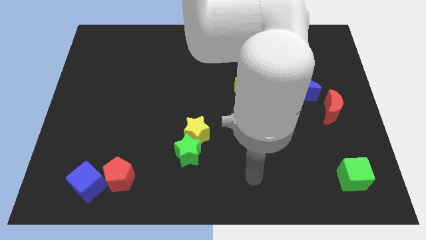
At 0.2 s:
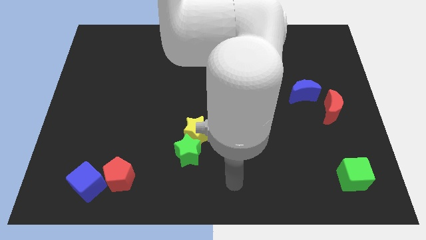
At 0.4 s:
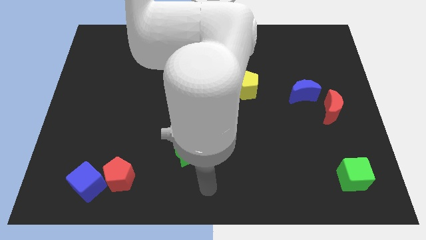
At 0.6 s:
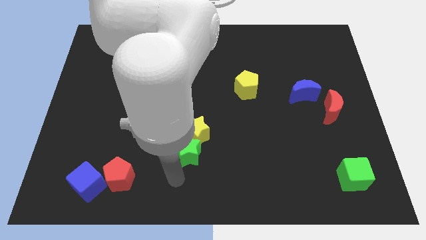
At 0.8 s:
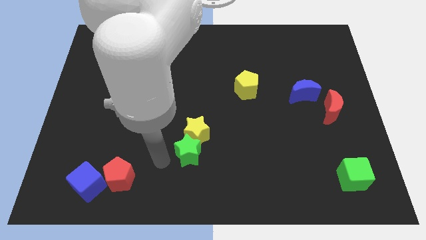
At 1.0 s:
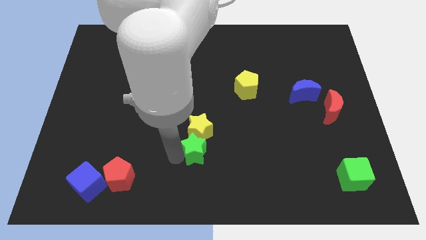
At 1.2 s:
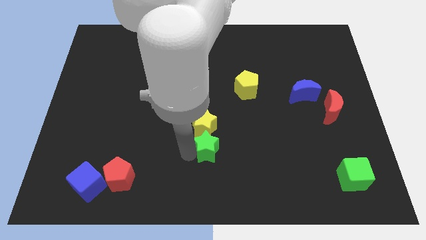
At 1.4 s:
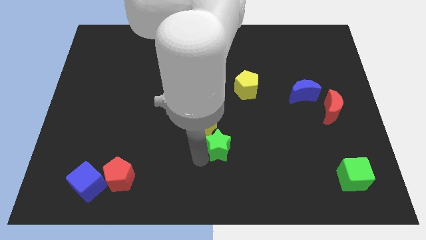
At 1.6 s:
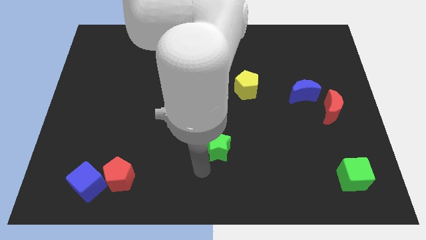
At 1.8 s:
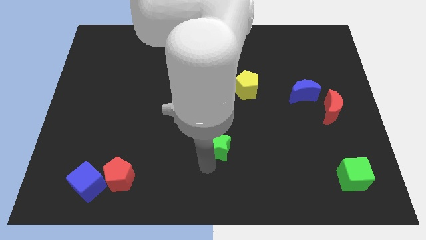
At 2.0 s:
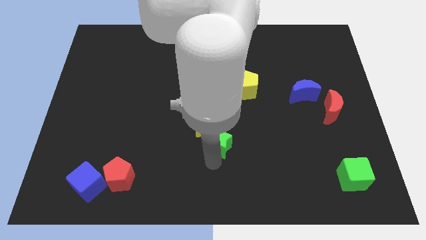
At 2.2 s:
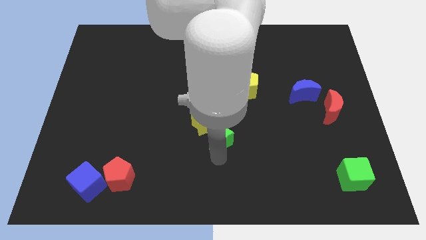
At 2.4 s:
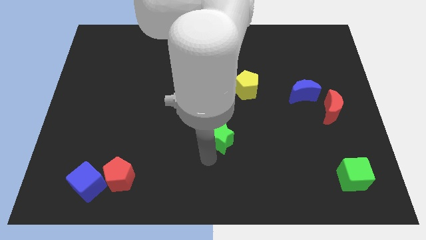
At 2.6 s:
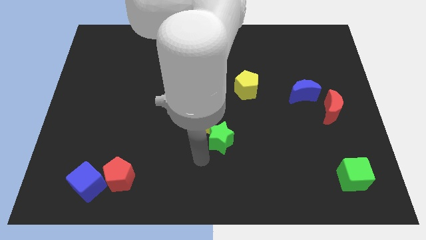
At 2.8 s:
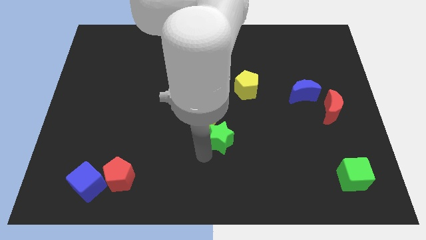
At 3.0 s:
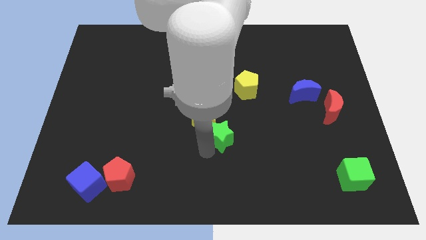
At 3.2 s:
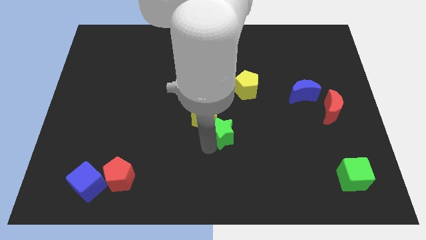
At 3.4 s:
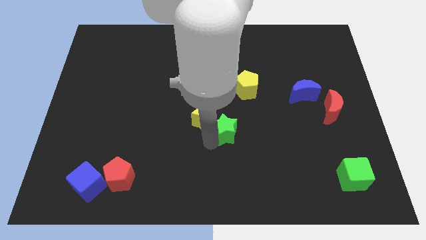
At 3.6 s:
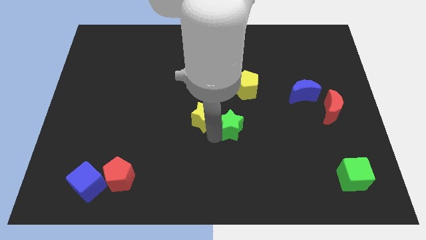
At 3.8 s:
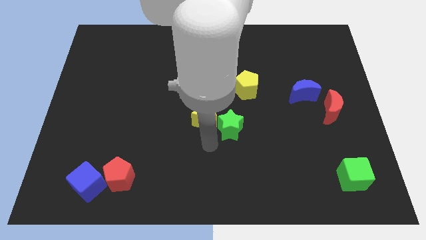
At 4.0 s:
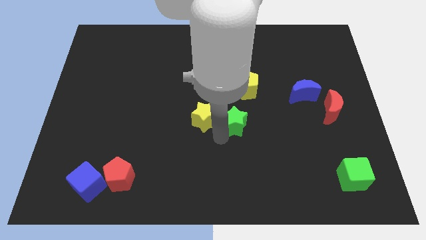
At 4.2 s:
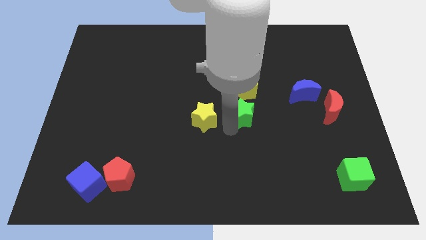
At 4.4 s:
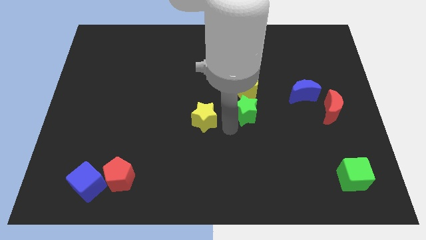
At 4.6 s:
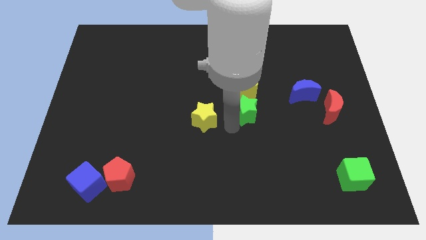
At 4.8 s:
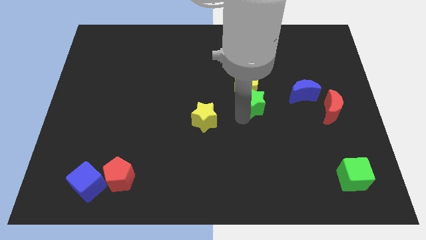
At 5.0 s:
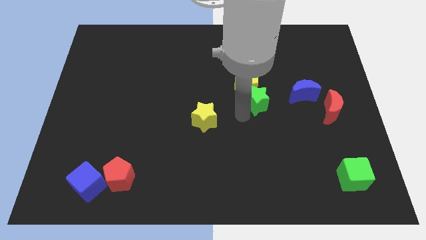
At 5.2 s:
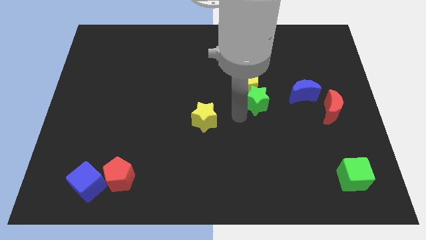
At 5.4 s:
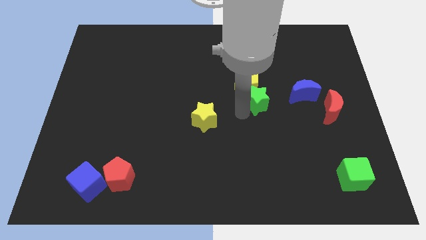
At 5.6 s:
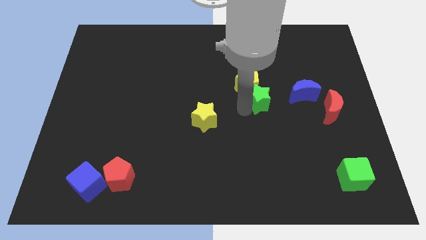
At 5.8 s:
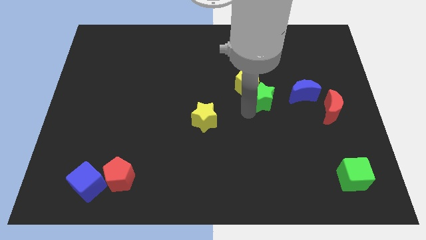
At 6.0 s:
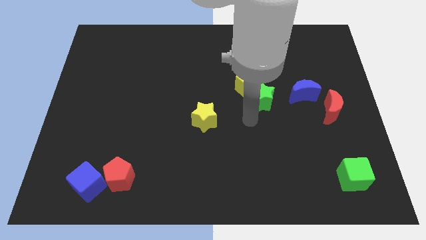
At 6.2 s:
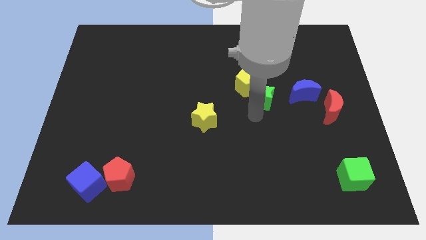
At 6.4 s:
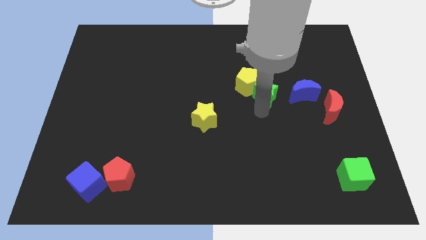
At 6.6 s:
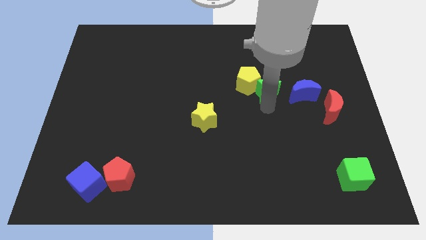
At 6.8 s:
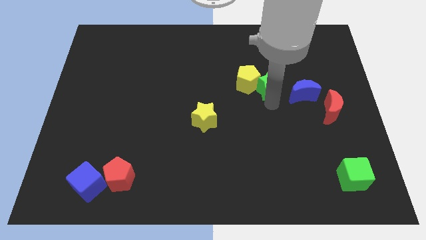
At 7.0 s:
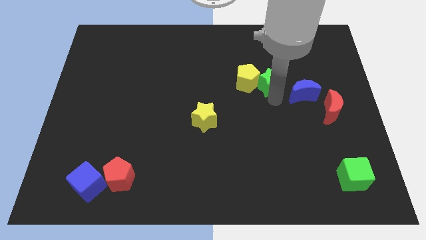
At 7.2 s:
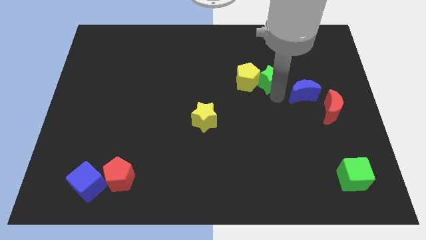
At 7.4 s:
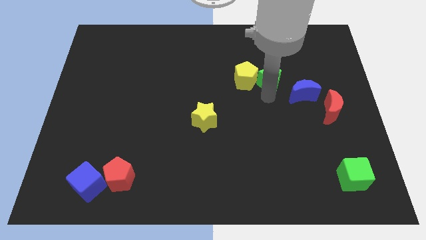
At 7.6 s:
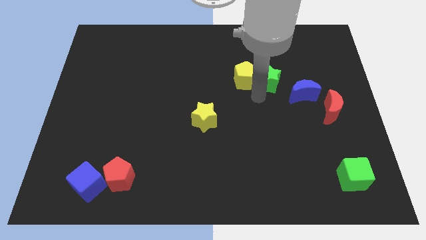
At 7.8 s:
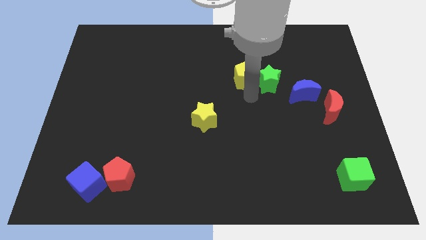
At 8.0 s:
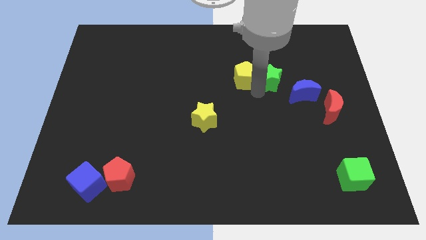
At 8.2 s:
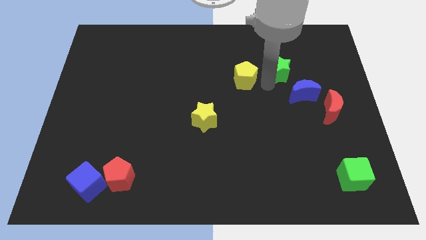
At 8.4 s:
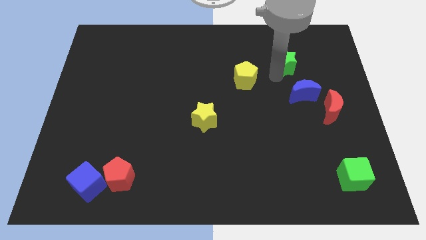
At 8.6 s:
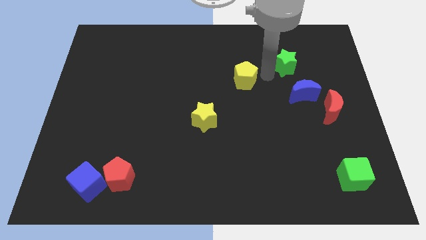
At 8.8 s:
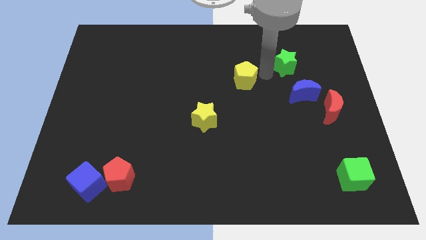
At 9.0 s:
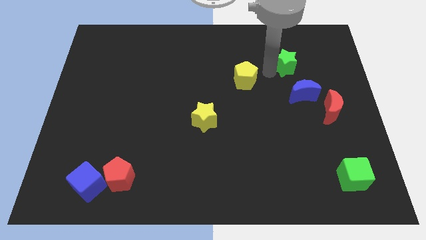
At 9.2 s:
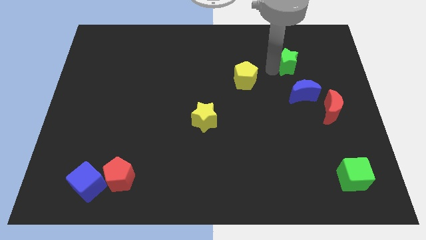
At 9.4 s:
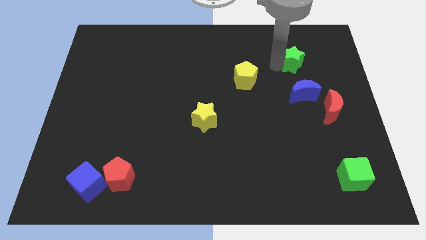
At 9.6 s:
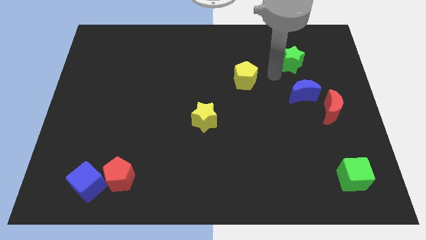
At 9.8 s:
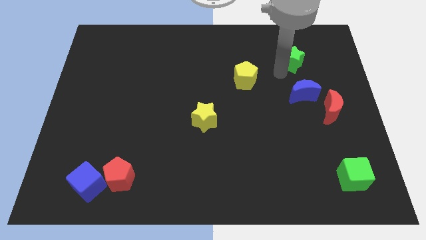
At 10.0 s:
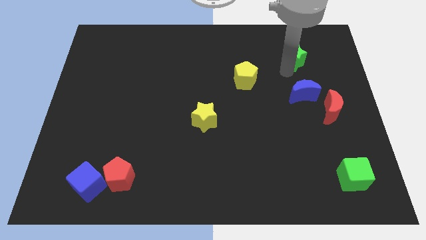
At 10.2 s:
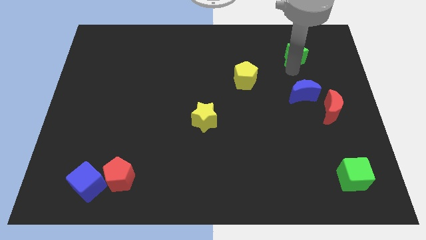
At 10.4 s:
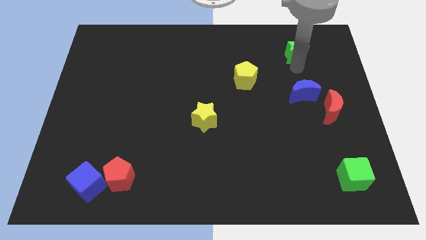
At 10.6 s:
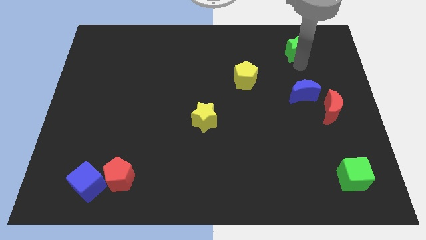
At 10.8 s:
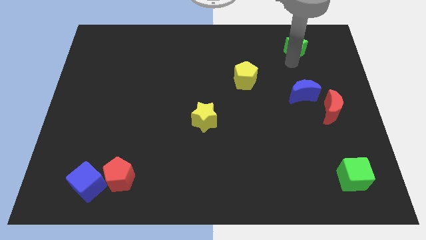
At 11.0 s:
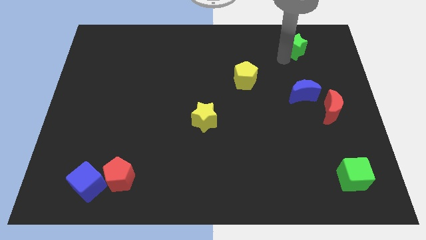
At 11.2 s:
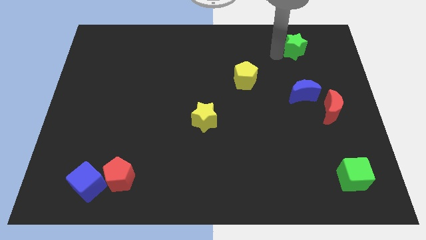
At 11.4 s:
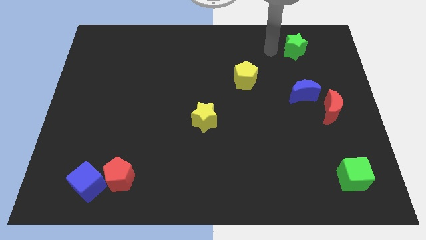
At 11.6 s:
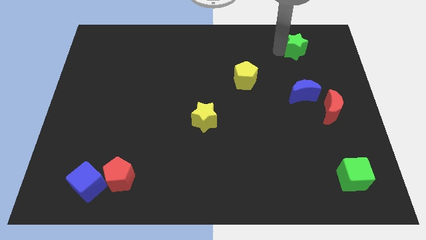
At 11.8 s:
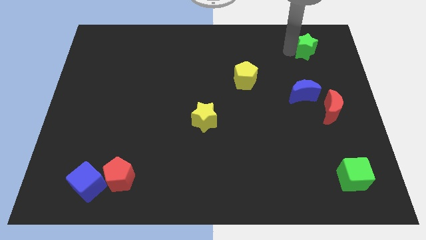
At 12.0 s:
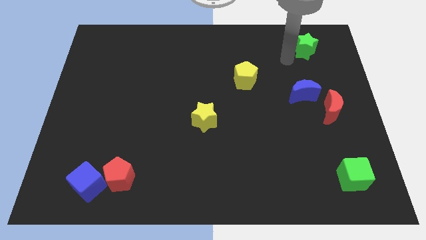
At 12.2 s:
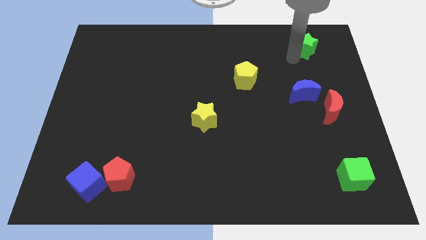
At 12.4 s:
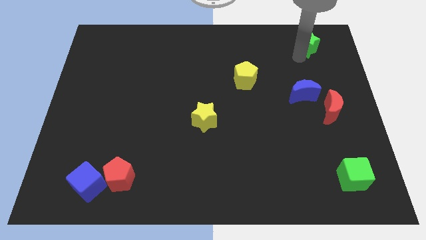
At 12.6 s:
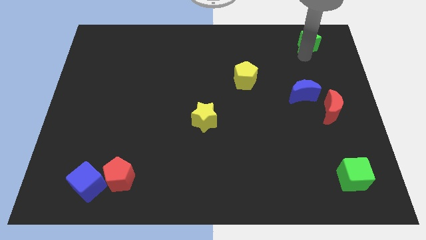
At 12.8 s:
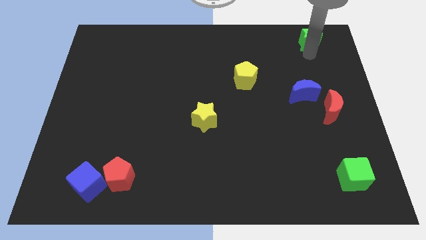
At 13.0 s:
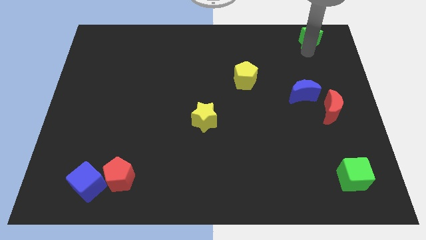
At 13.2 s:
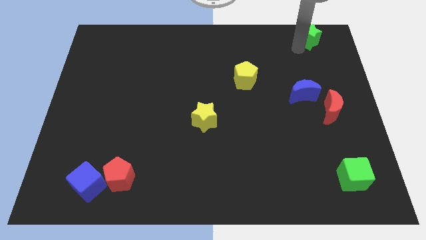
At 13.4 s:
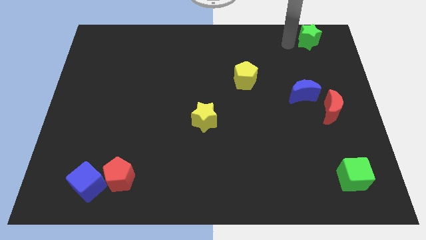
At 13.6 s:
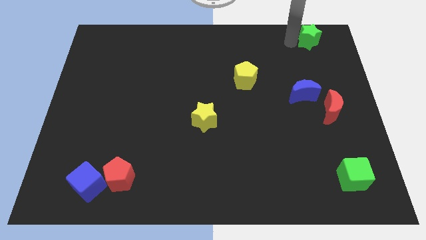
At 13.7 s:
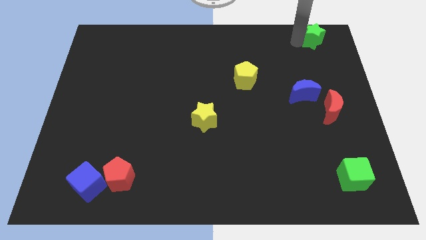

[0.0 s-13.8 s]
move the green star to the top right of the board
